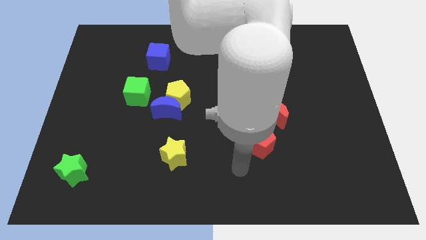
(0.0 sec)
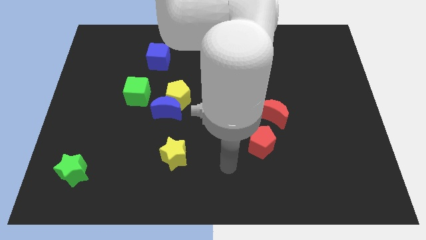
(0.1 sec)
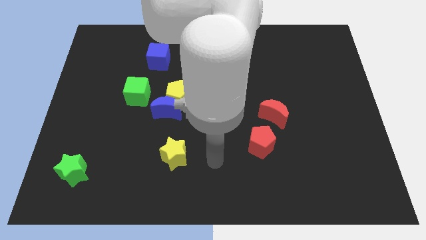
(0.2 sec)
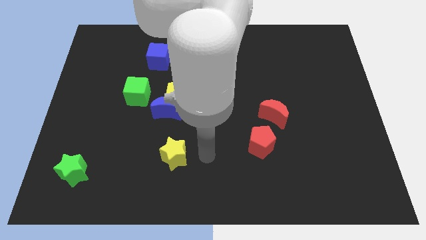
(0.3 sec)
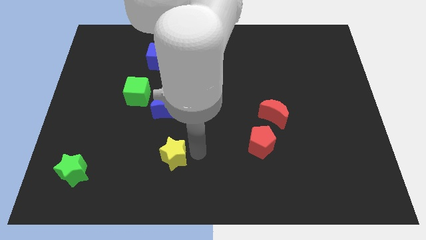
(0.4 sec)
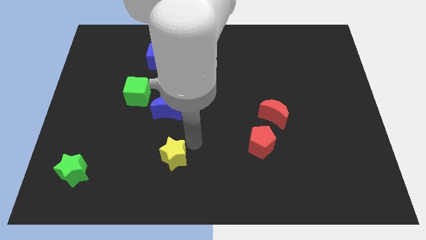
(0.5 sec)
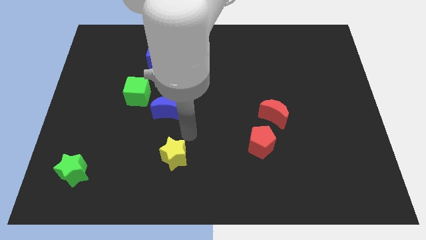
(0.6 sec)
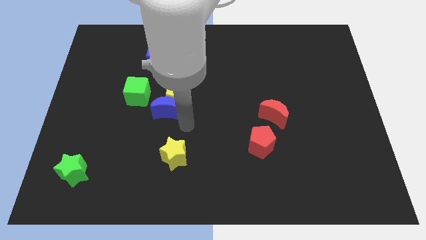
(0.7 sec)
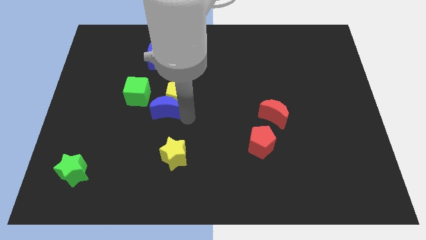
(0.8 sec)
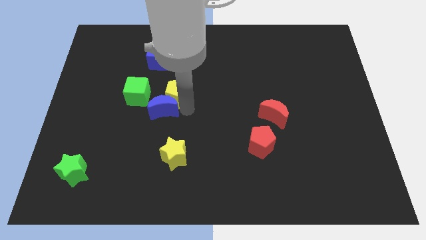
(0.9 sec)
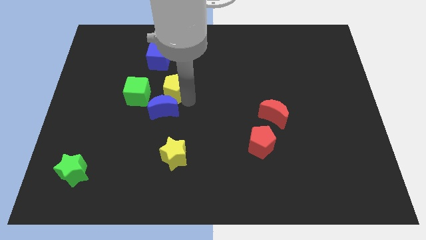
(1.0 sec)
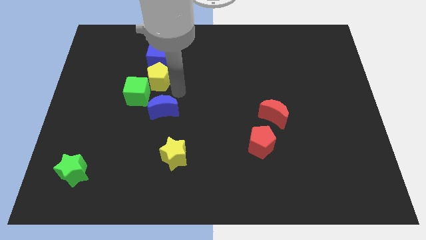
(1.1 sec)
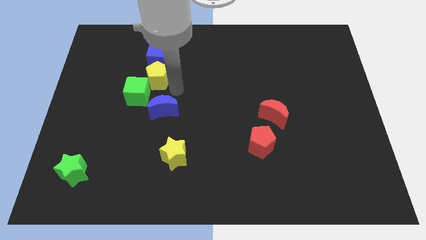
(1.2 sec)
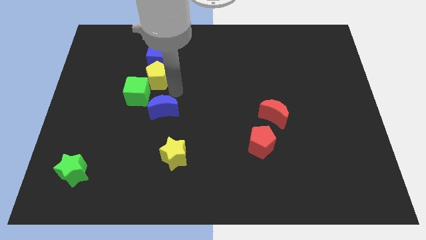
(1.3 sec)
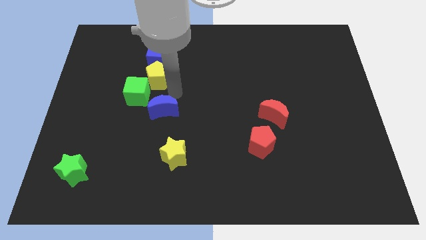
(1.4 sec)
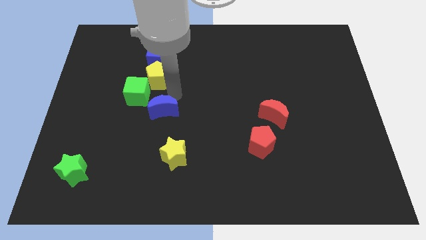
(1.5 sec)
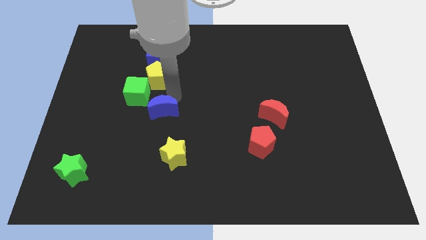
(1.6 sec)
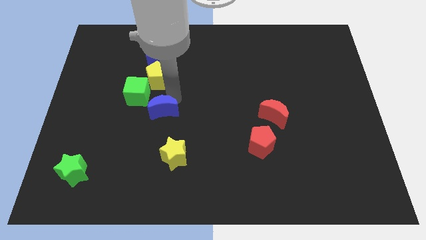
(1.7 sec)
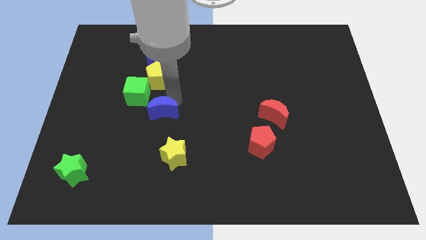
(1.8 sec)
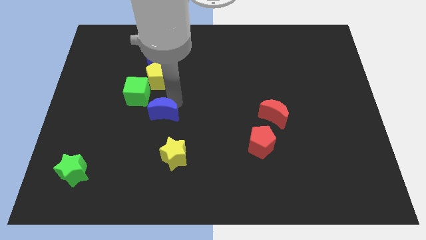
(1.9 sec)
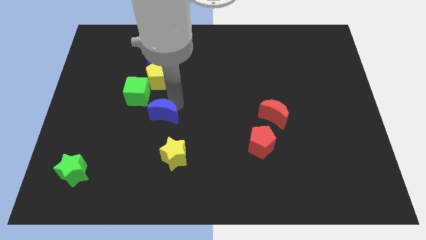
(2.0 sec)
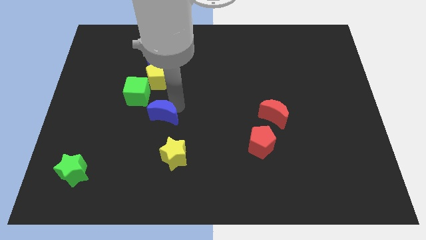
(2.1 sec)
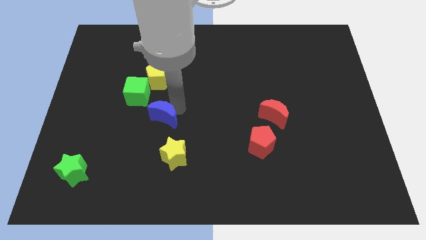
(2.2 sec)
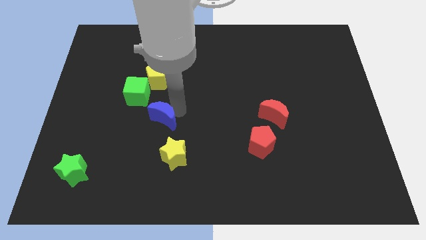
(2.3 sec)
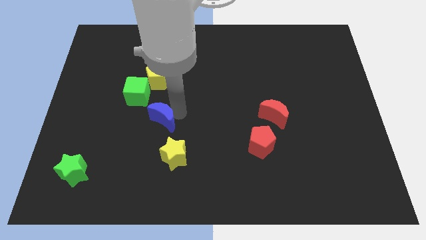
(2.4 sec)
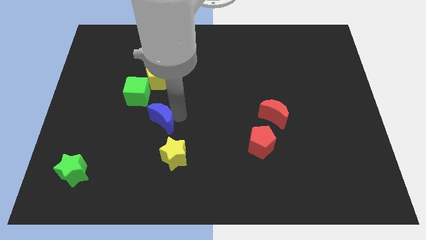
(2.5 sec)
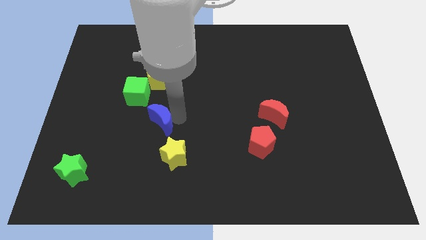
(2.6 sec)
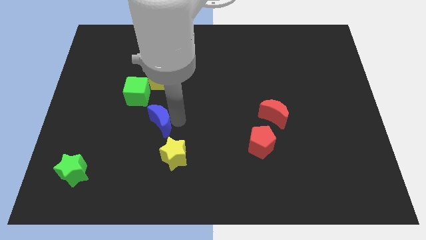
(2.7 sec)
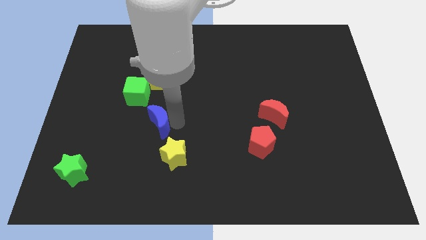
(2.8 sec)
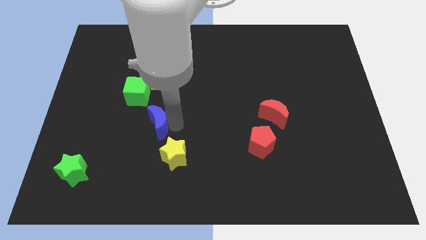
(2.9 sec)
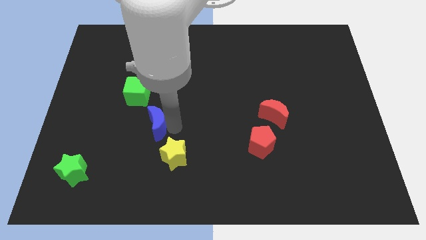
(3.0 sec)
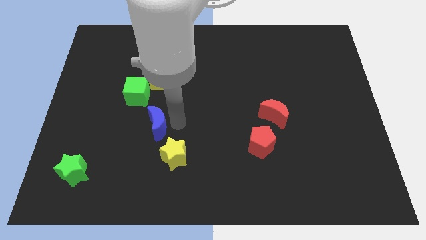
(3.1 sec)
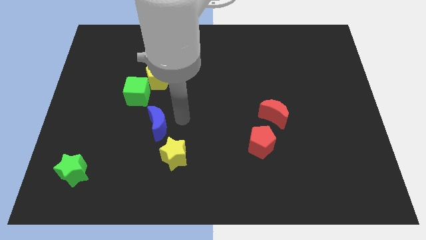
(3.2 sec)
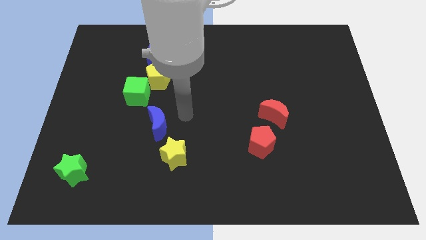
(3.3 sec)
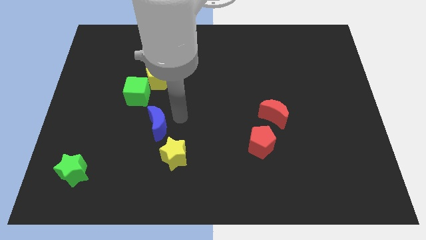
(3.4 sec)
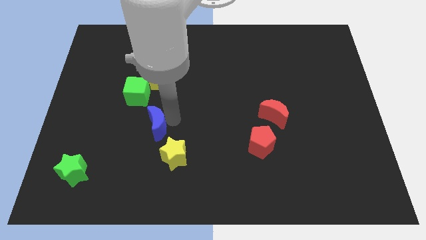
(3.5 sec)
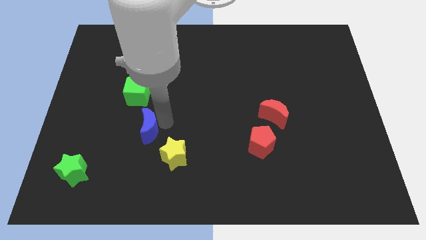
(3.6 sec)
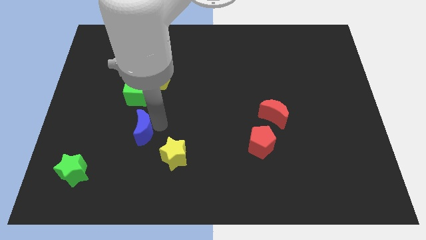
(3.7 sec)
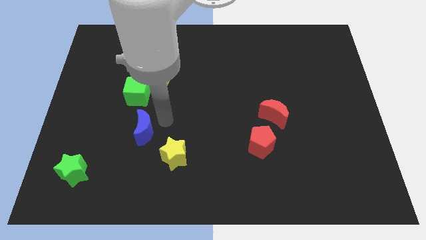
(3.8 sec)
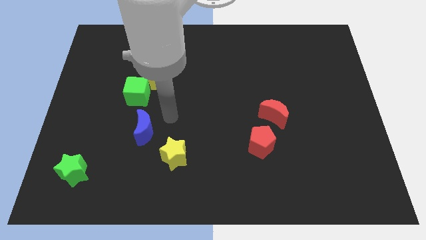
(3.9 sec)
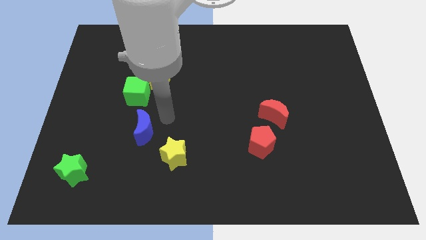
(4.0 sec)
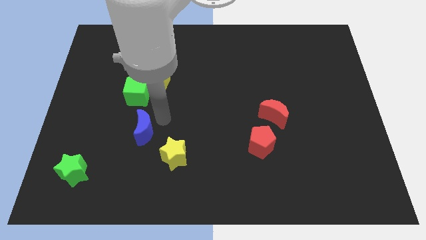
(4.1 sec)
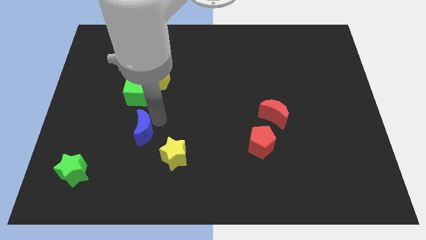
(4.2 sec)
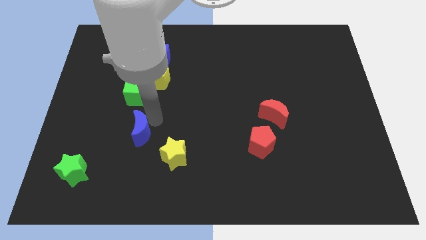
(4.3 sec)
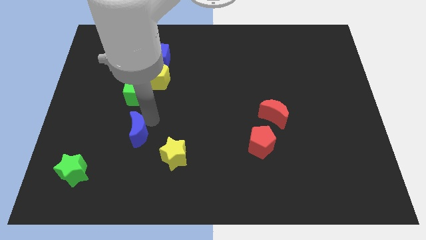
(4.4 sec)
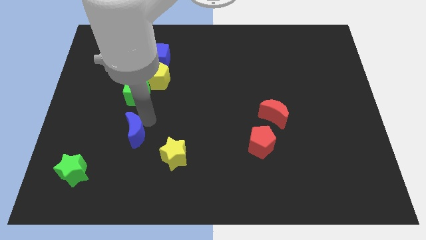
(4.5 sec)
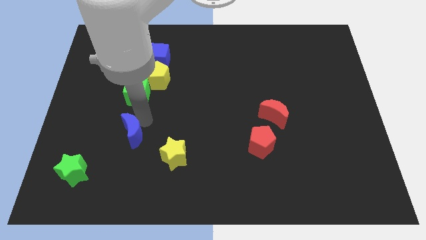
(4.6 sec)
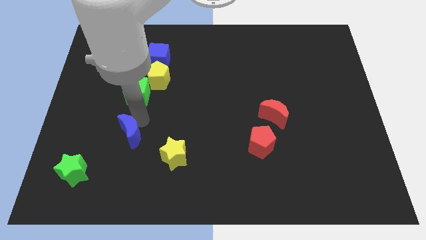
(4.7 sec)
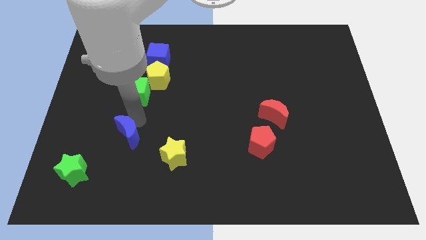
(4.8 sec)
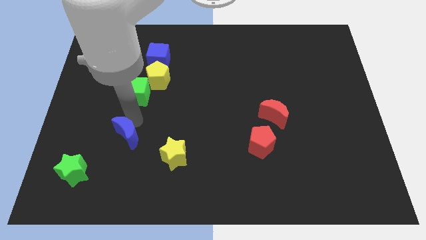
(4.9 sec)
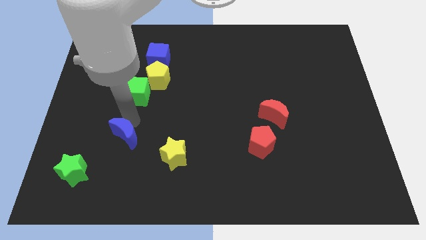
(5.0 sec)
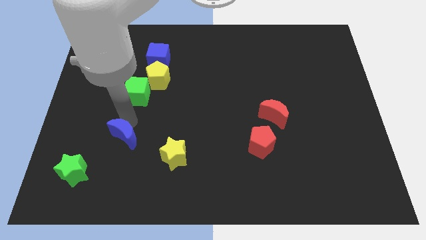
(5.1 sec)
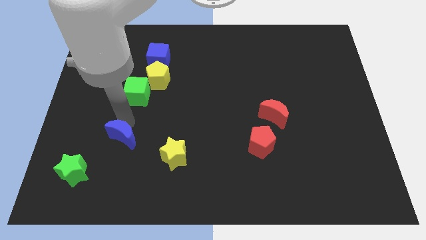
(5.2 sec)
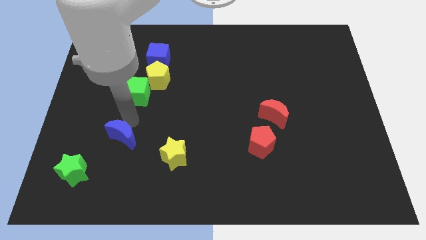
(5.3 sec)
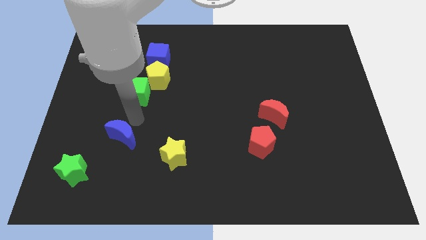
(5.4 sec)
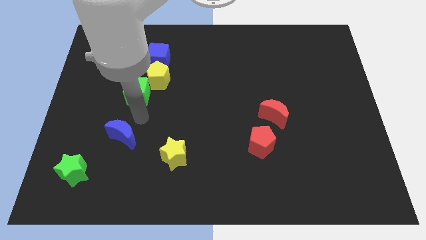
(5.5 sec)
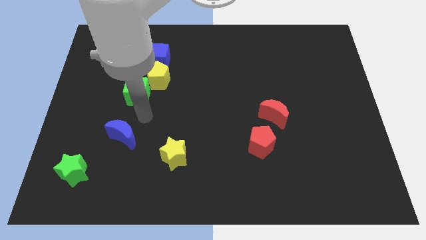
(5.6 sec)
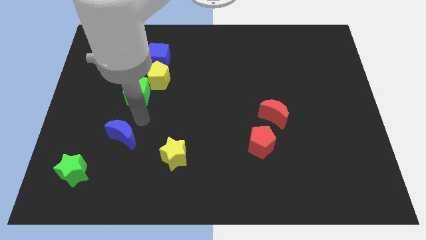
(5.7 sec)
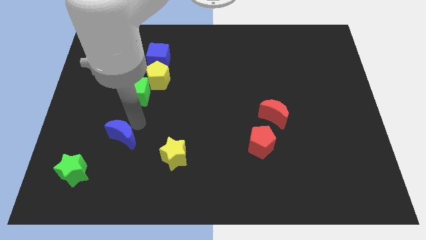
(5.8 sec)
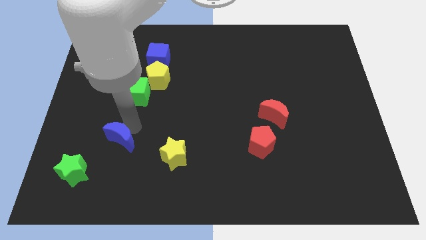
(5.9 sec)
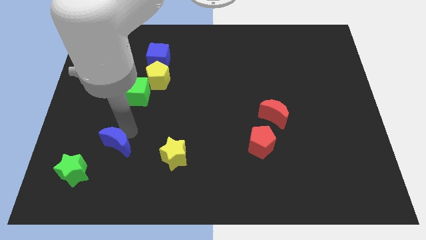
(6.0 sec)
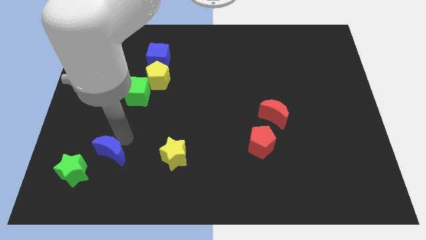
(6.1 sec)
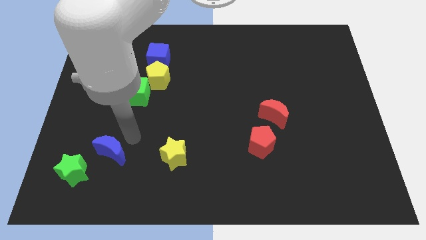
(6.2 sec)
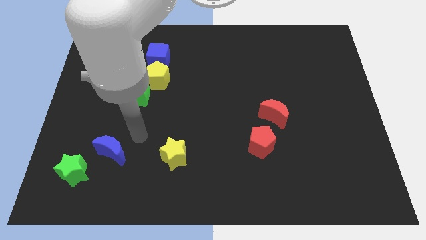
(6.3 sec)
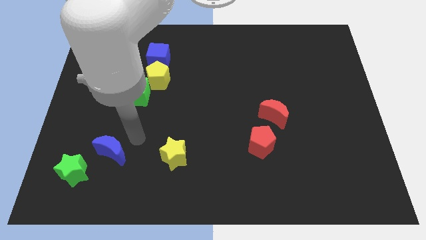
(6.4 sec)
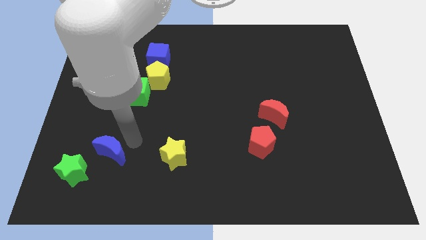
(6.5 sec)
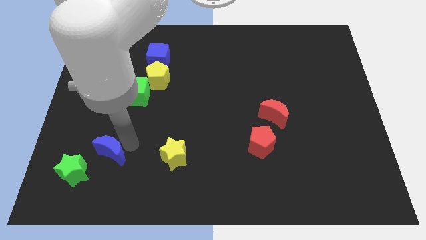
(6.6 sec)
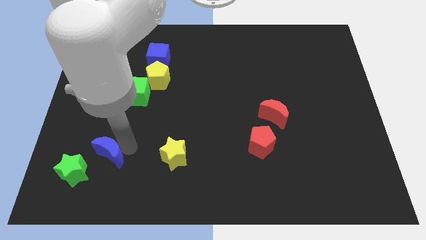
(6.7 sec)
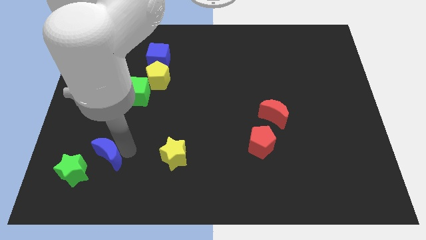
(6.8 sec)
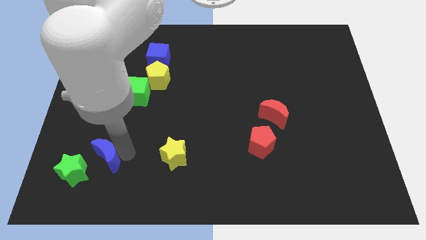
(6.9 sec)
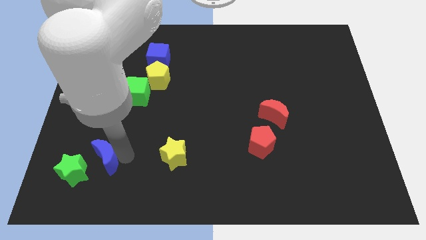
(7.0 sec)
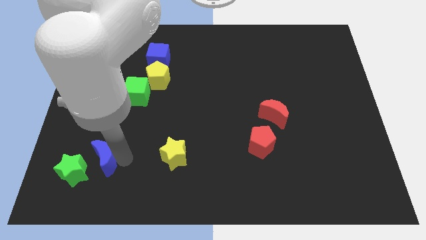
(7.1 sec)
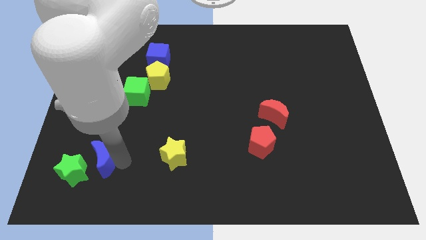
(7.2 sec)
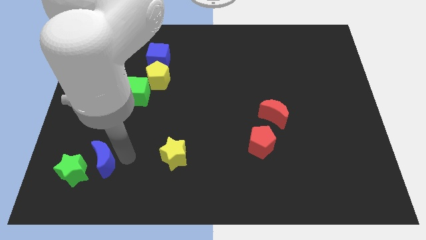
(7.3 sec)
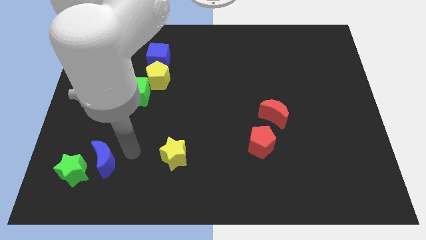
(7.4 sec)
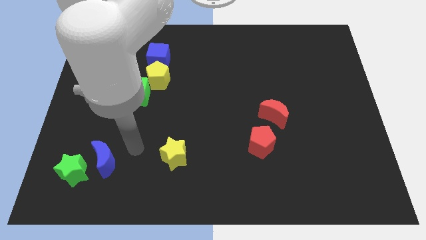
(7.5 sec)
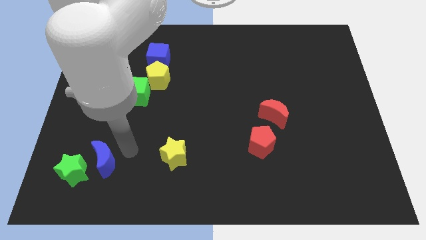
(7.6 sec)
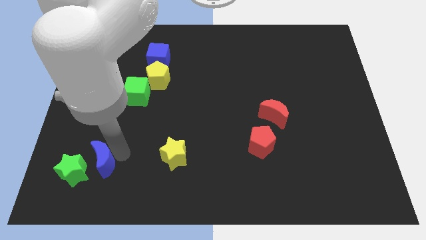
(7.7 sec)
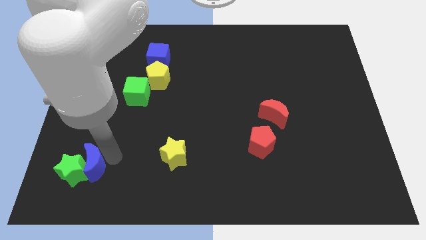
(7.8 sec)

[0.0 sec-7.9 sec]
push the blue moon close to the green star
